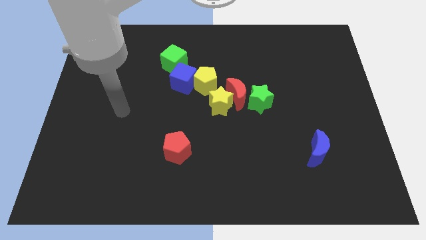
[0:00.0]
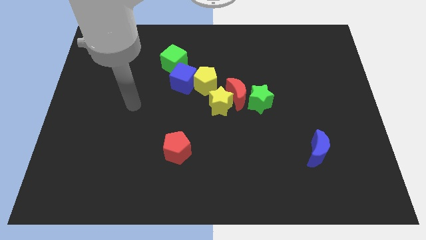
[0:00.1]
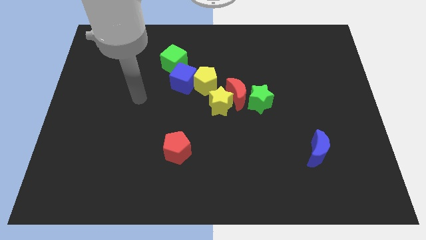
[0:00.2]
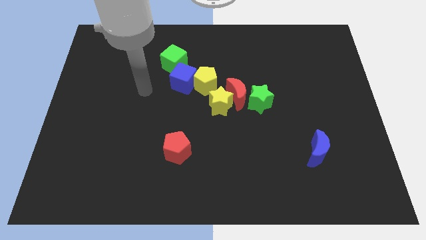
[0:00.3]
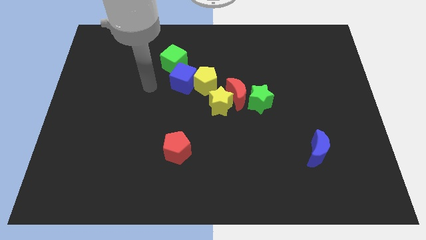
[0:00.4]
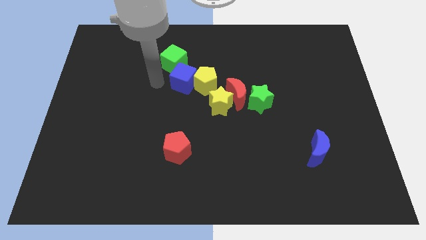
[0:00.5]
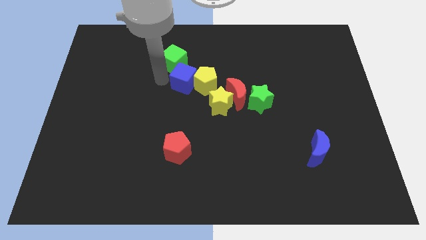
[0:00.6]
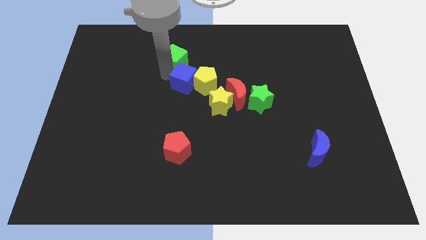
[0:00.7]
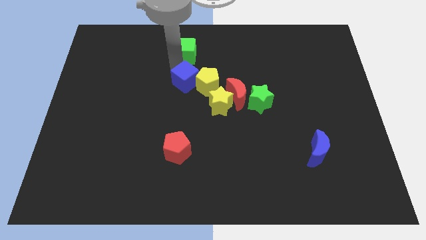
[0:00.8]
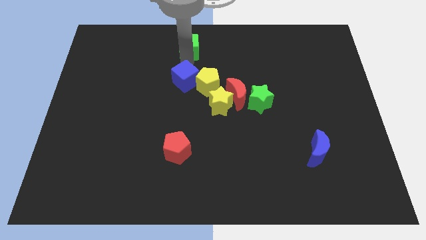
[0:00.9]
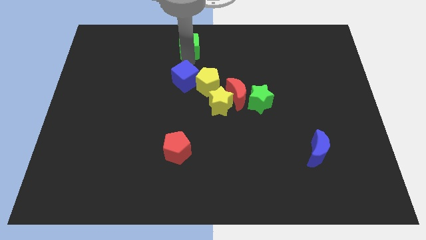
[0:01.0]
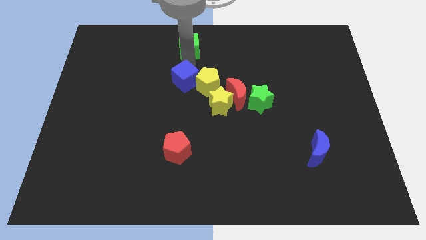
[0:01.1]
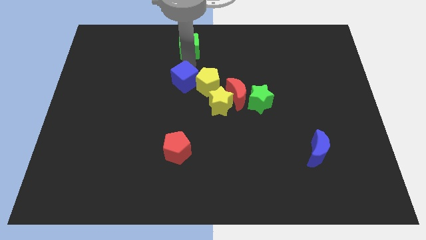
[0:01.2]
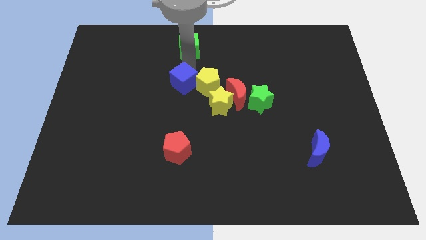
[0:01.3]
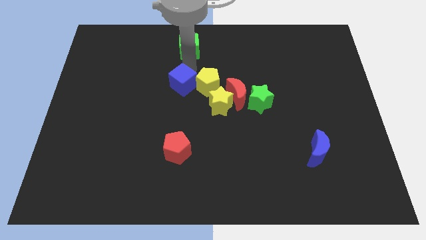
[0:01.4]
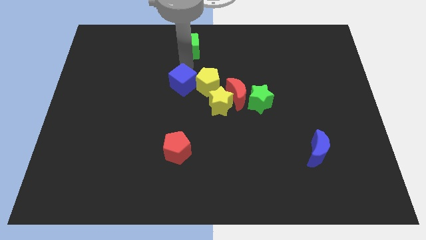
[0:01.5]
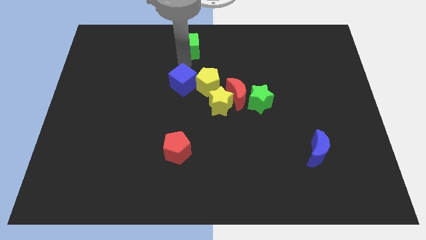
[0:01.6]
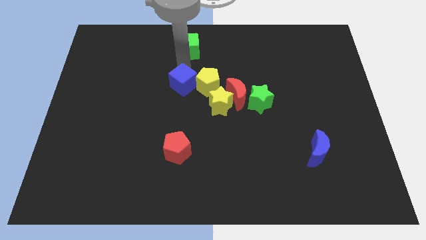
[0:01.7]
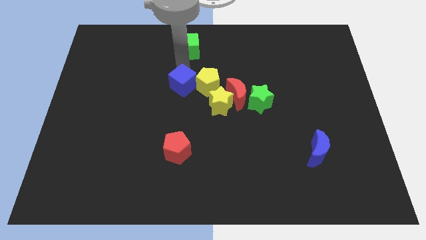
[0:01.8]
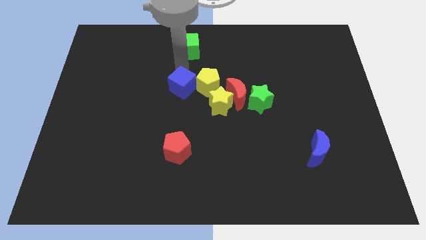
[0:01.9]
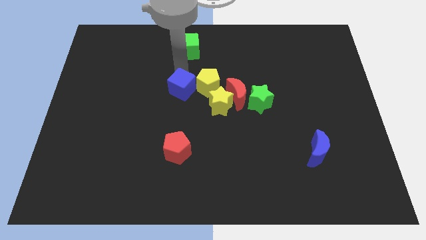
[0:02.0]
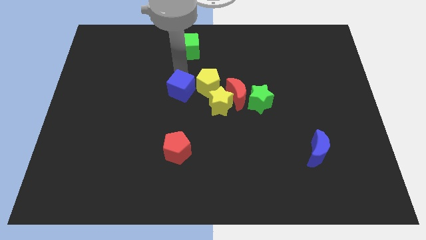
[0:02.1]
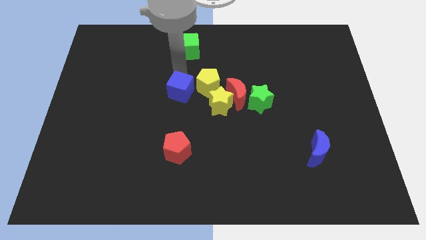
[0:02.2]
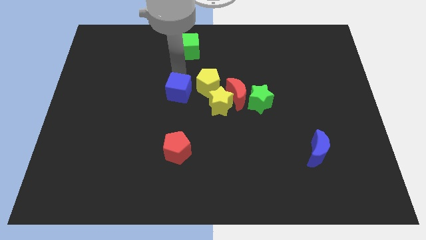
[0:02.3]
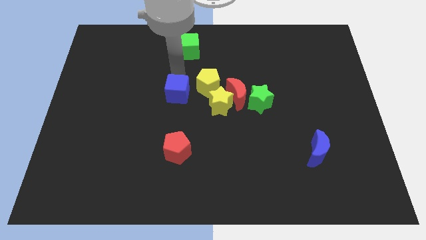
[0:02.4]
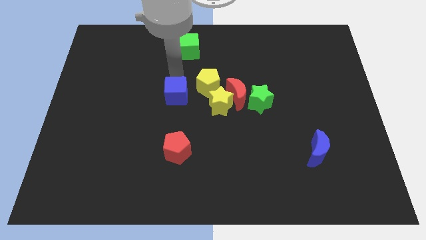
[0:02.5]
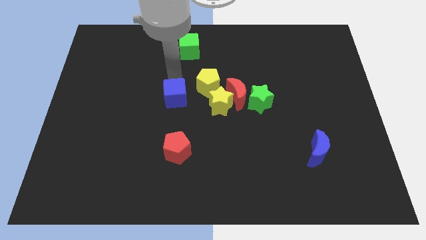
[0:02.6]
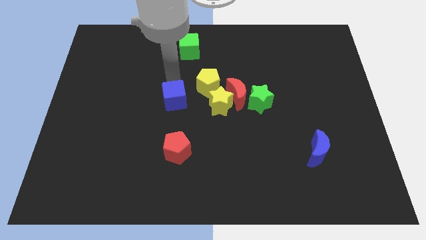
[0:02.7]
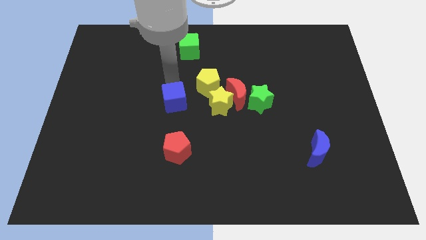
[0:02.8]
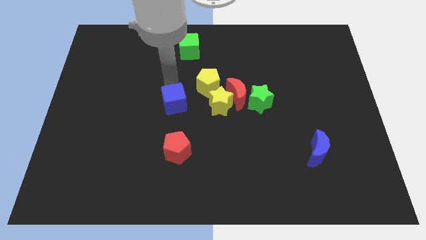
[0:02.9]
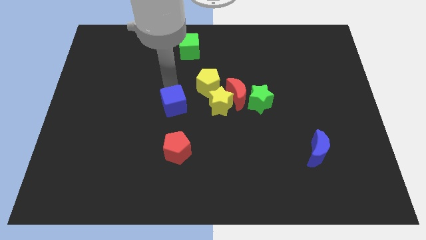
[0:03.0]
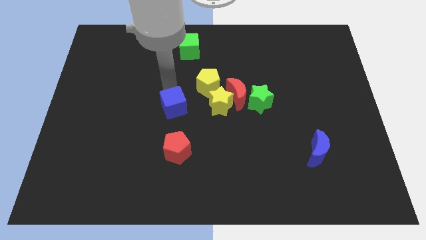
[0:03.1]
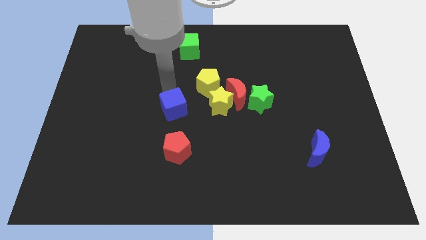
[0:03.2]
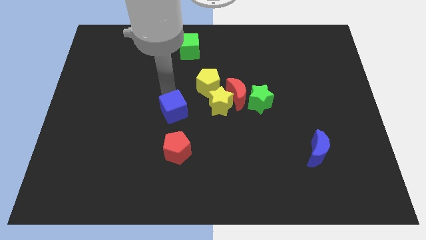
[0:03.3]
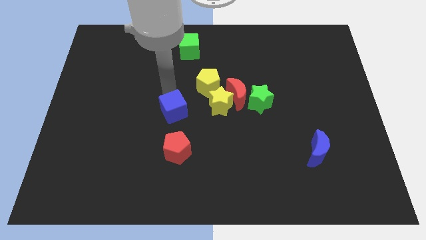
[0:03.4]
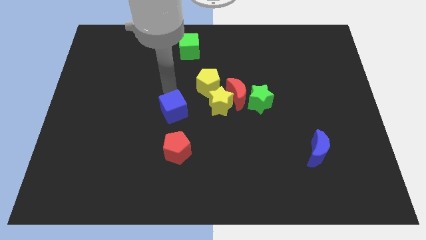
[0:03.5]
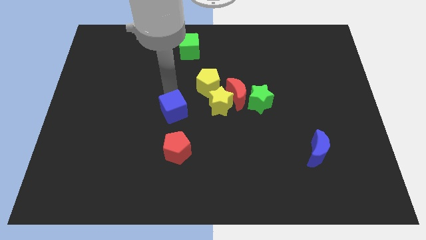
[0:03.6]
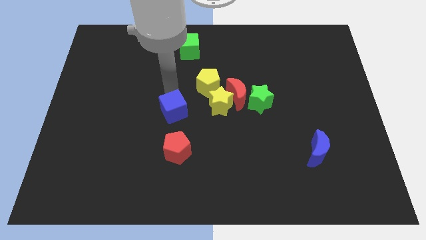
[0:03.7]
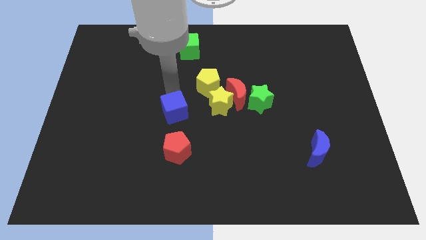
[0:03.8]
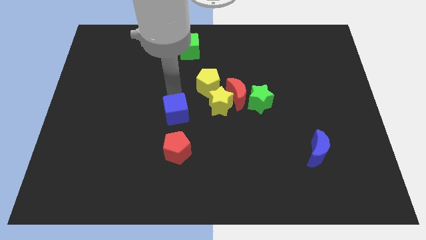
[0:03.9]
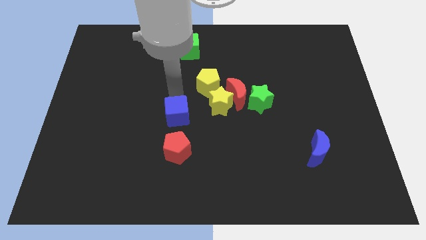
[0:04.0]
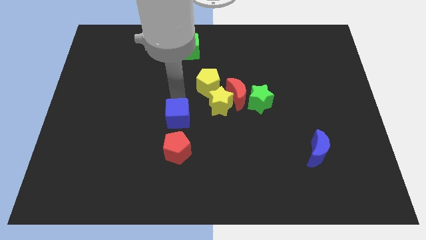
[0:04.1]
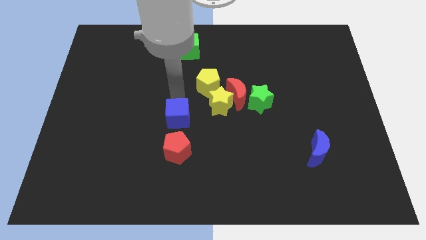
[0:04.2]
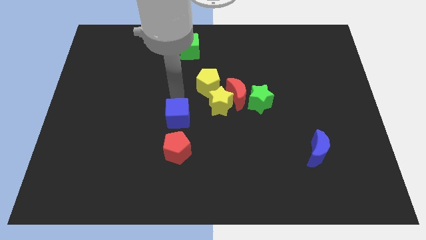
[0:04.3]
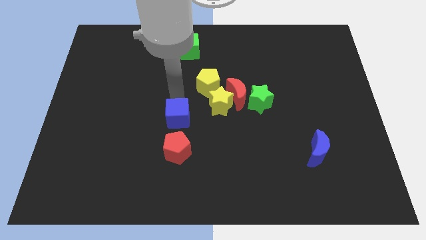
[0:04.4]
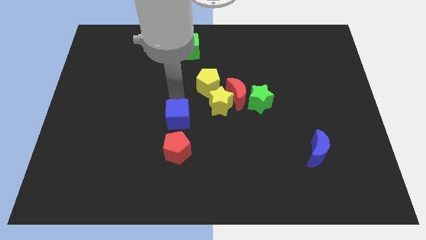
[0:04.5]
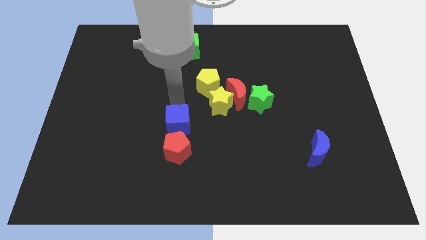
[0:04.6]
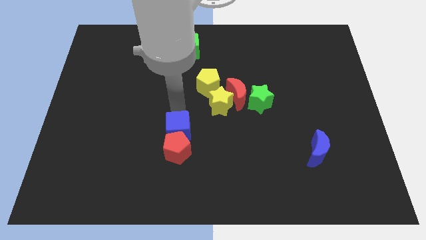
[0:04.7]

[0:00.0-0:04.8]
move the blue cube next to the red pentagon

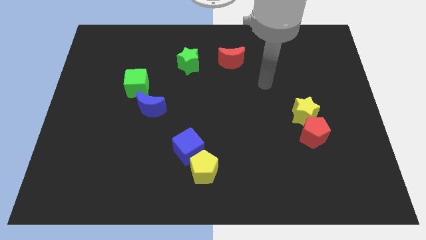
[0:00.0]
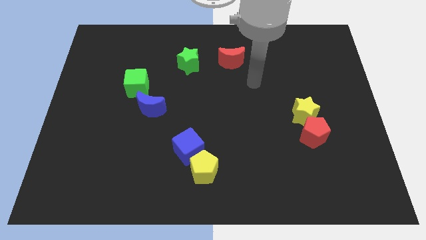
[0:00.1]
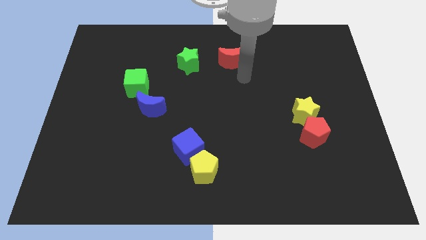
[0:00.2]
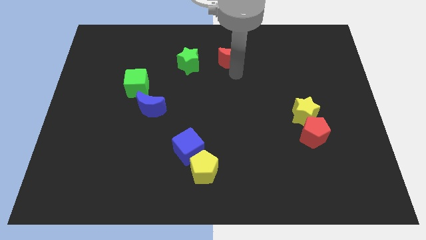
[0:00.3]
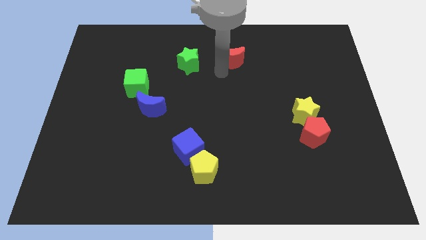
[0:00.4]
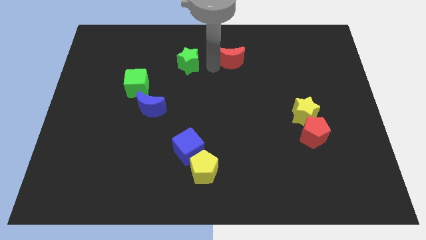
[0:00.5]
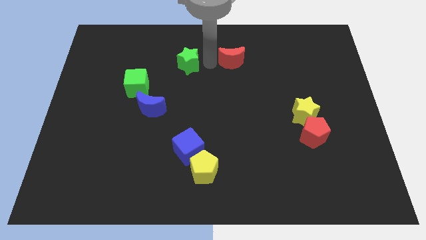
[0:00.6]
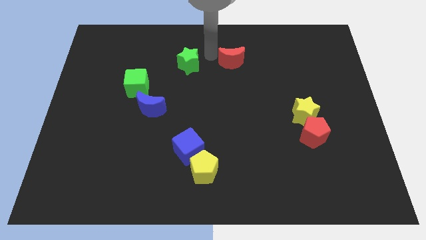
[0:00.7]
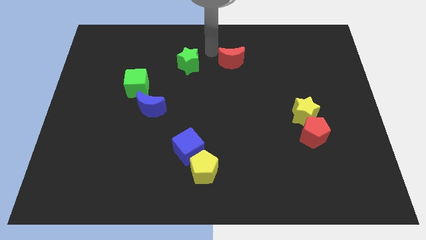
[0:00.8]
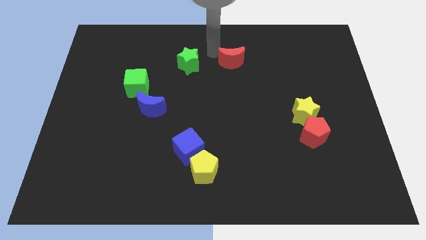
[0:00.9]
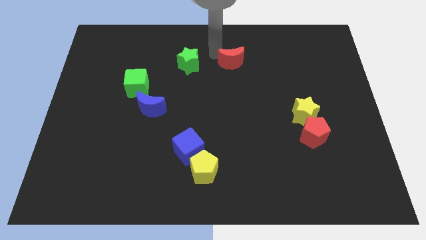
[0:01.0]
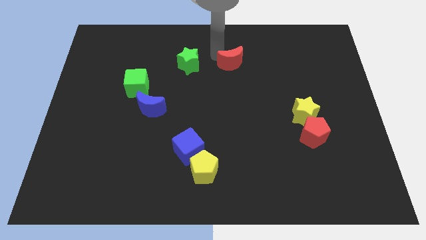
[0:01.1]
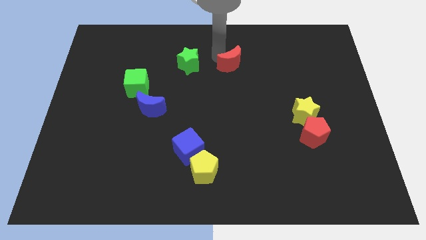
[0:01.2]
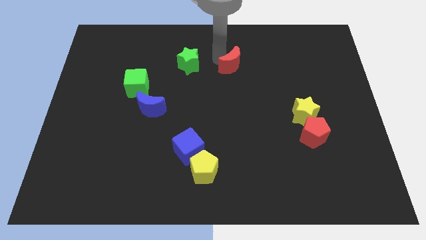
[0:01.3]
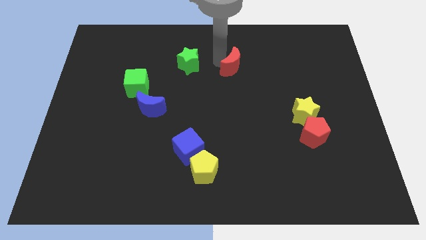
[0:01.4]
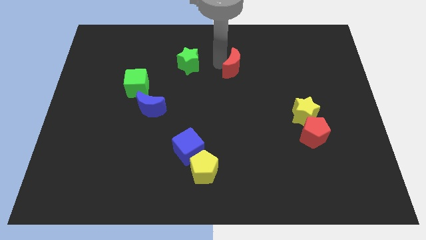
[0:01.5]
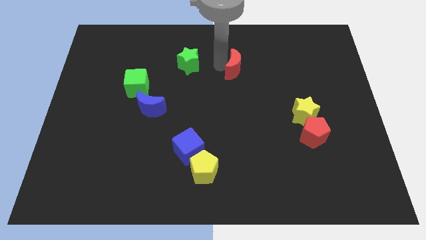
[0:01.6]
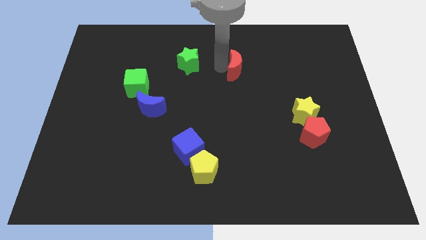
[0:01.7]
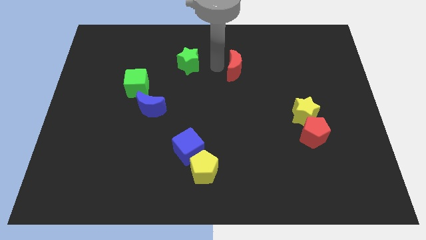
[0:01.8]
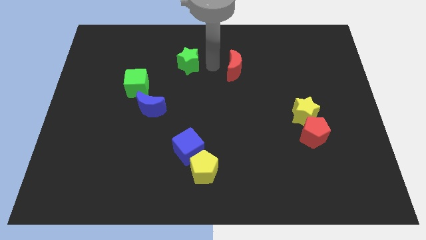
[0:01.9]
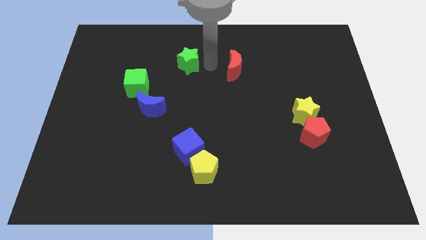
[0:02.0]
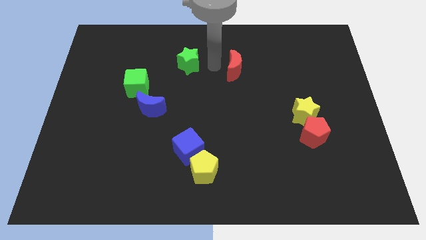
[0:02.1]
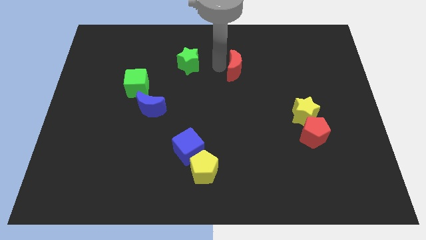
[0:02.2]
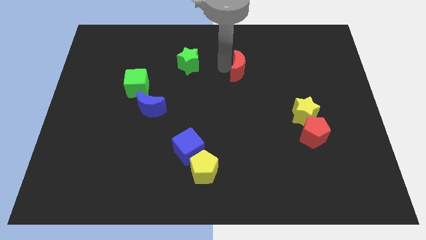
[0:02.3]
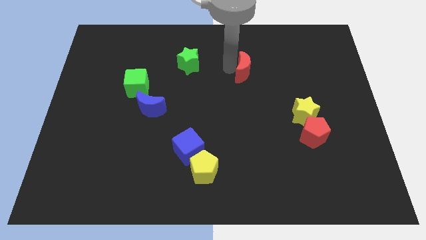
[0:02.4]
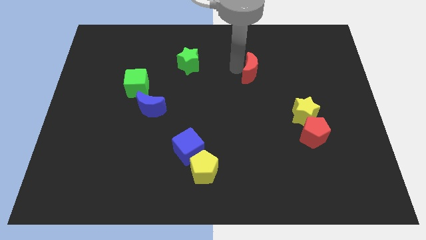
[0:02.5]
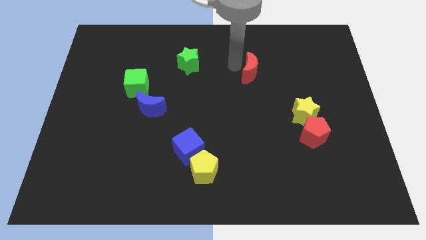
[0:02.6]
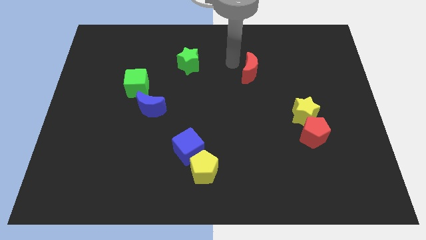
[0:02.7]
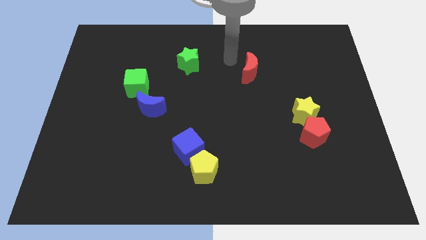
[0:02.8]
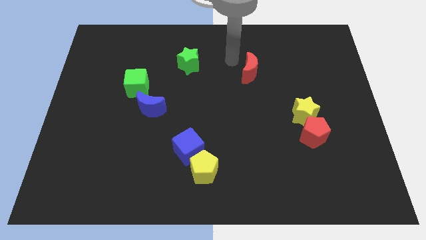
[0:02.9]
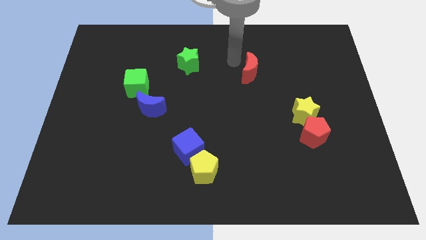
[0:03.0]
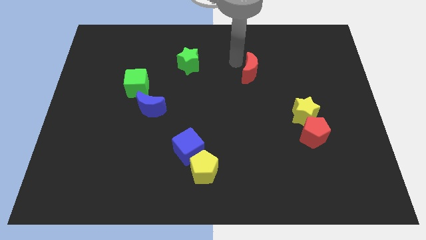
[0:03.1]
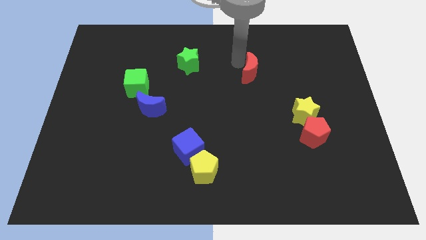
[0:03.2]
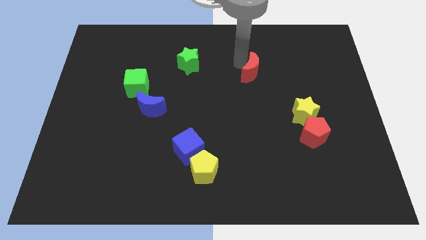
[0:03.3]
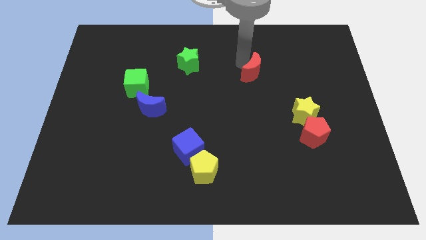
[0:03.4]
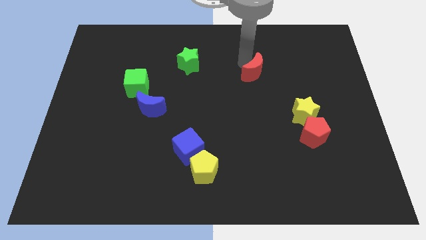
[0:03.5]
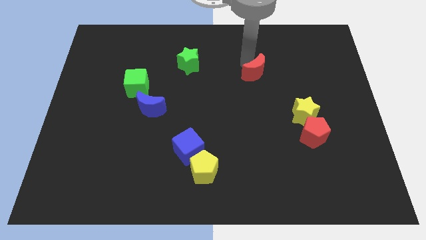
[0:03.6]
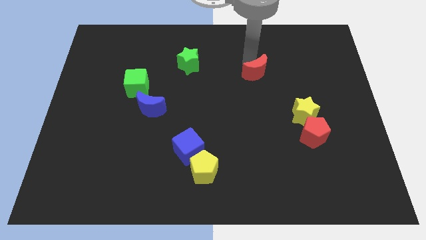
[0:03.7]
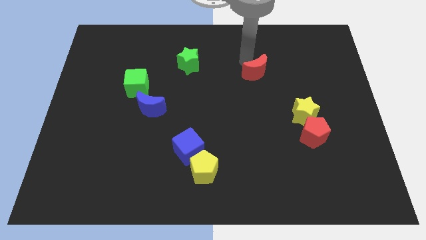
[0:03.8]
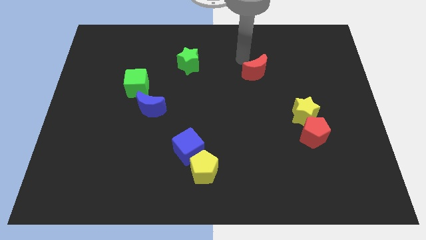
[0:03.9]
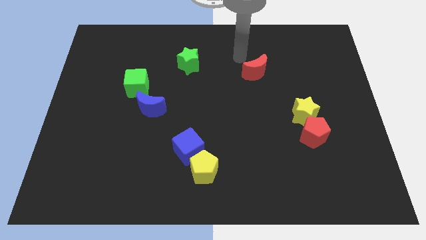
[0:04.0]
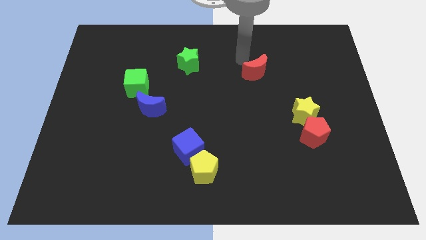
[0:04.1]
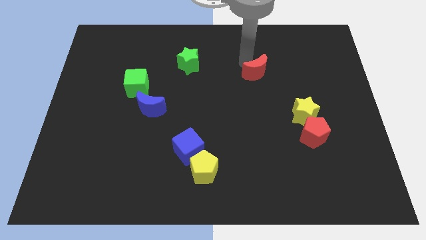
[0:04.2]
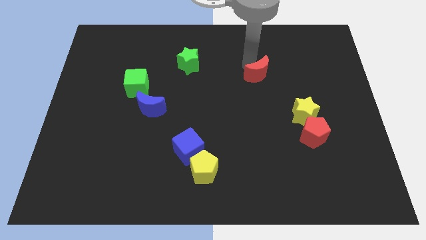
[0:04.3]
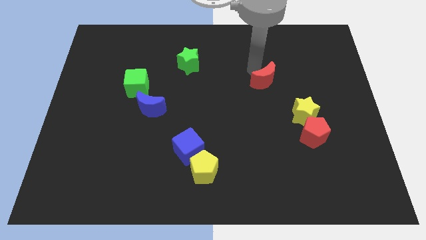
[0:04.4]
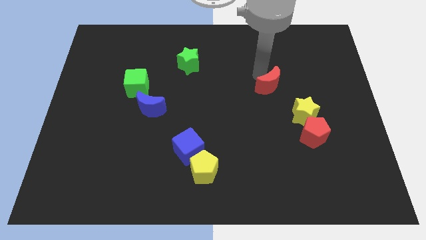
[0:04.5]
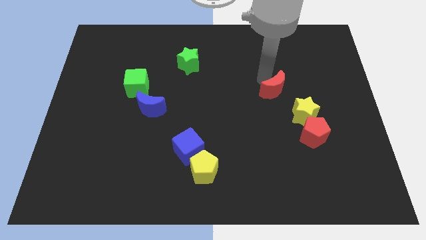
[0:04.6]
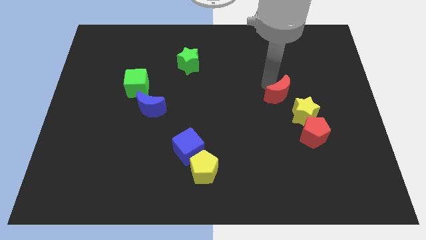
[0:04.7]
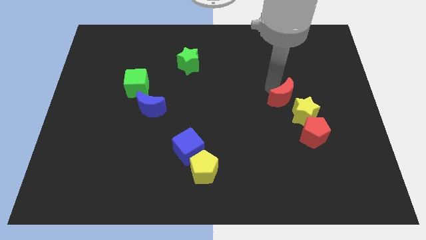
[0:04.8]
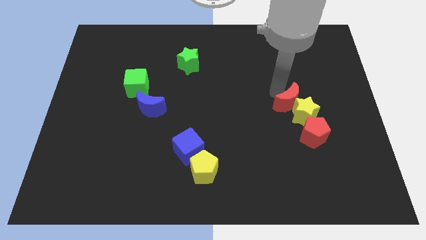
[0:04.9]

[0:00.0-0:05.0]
move the red moon to the yellow star
